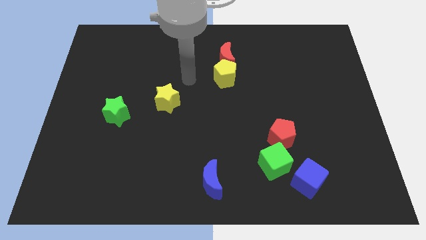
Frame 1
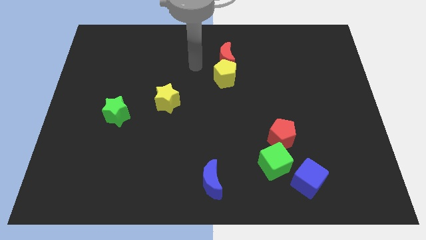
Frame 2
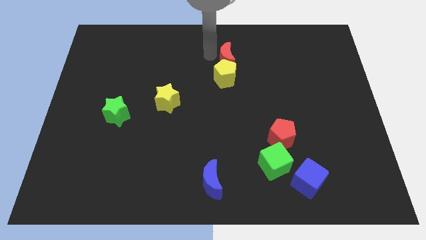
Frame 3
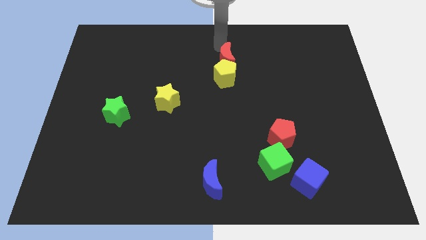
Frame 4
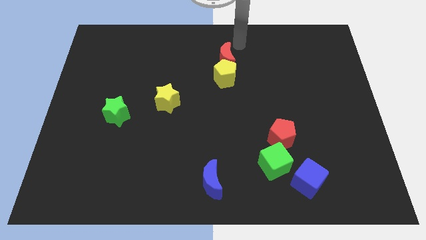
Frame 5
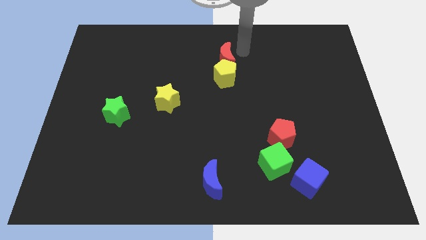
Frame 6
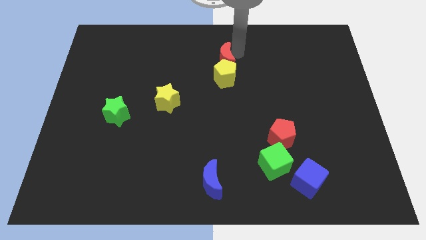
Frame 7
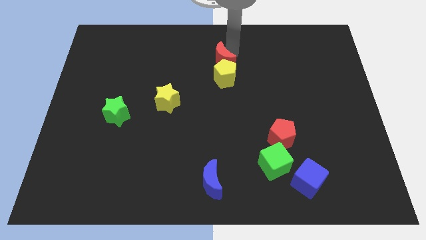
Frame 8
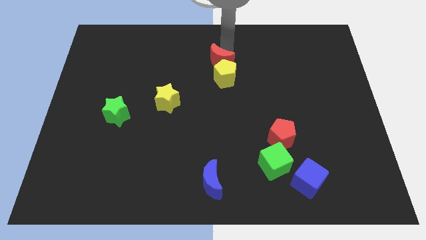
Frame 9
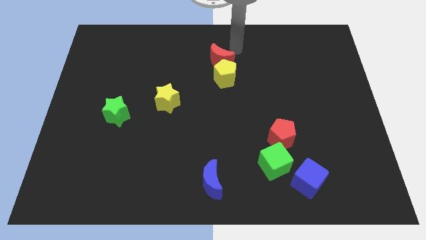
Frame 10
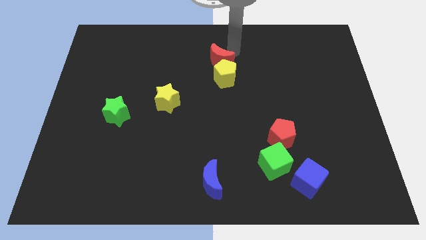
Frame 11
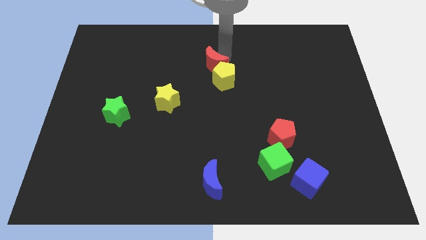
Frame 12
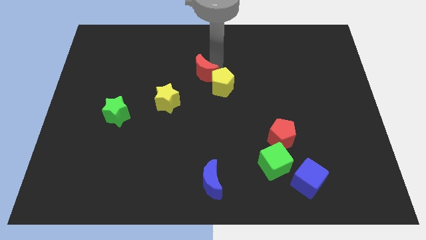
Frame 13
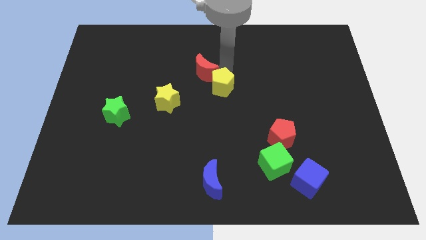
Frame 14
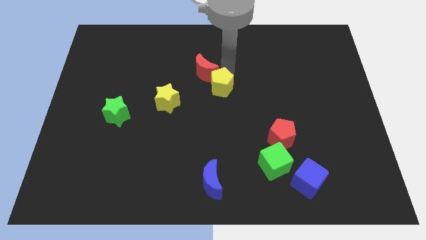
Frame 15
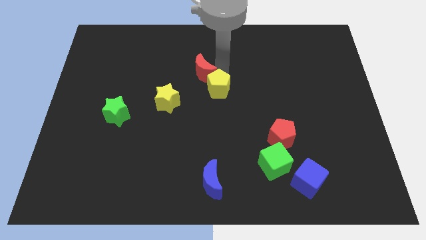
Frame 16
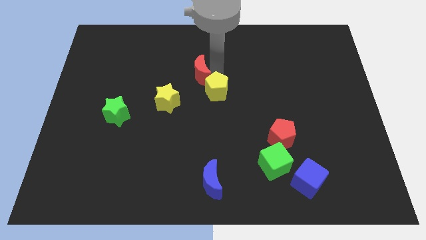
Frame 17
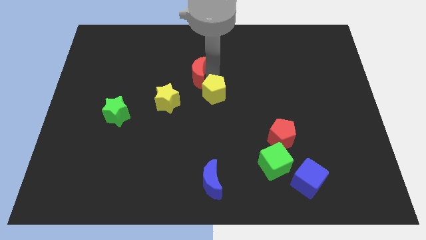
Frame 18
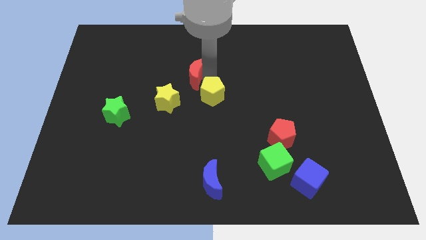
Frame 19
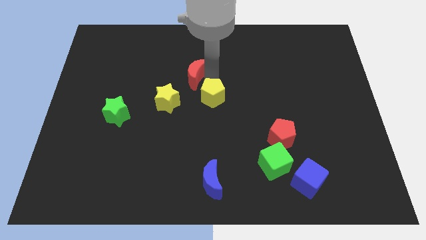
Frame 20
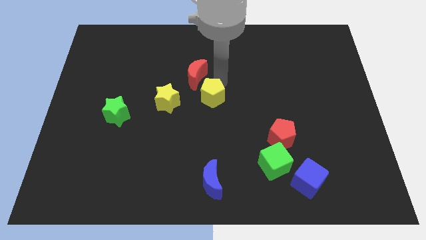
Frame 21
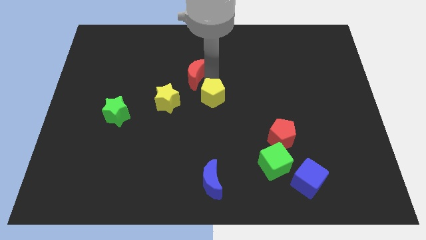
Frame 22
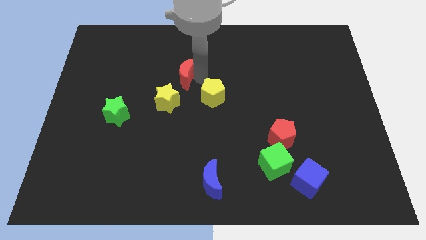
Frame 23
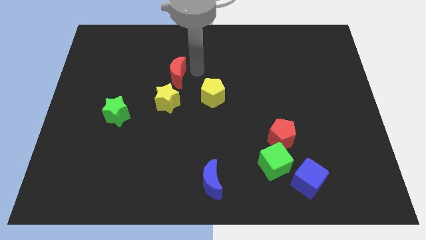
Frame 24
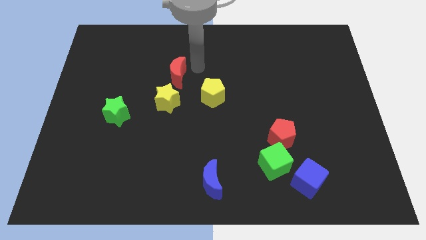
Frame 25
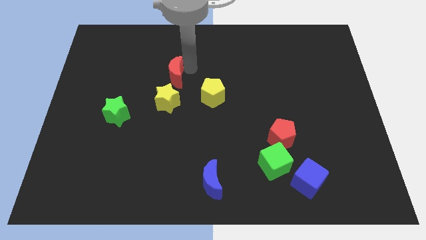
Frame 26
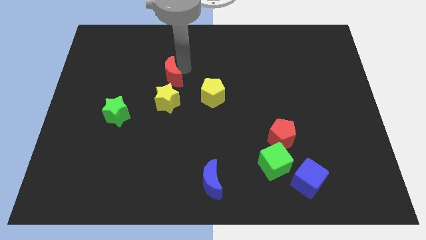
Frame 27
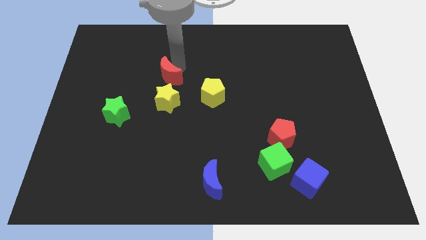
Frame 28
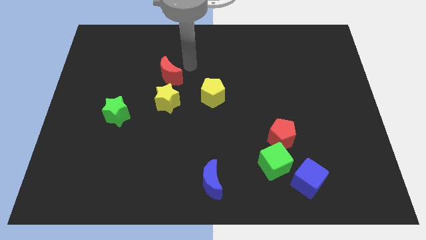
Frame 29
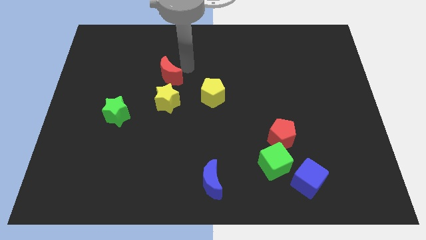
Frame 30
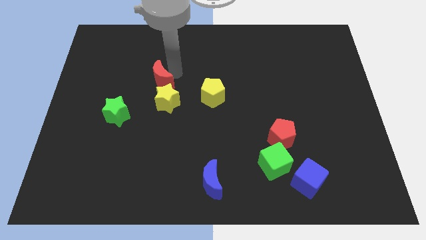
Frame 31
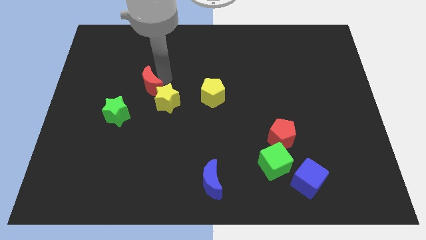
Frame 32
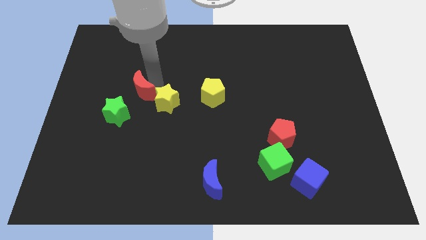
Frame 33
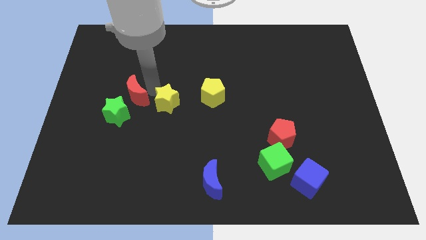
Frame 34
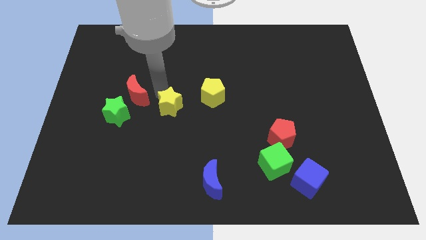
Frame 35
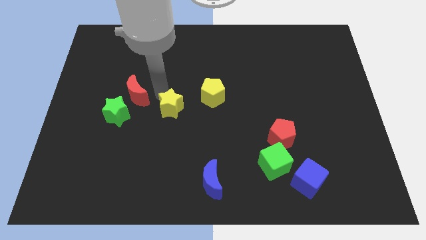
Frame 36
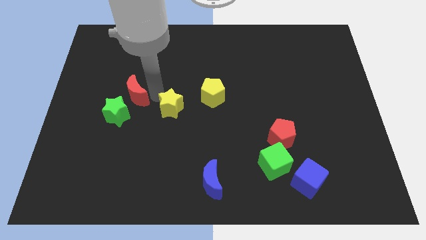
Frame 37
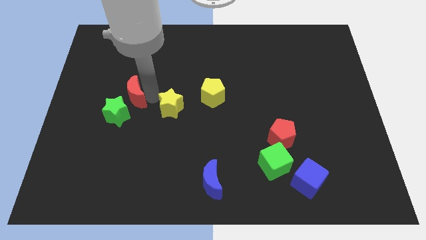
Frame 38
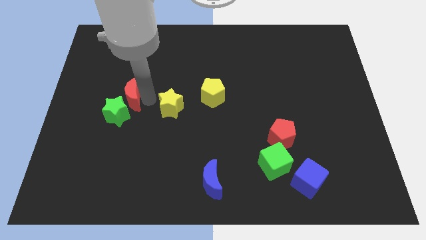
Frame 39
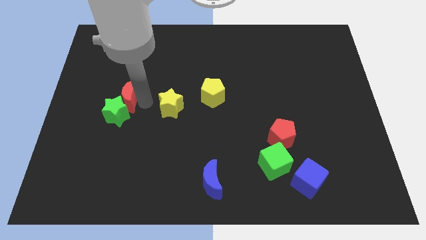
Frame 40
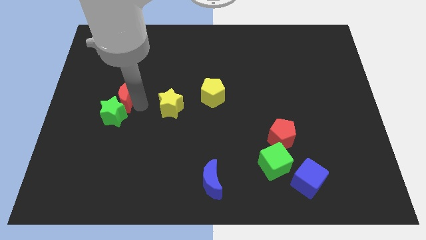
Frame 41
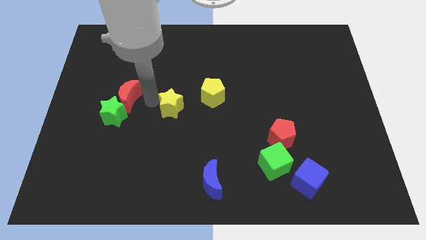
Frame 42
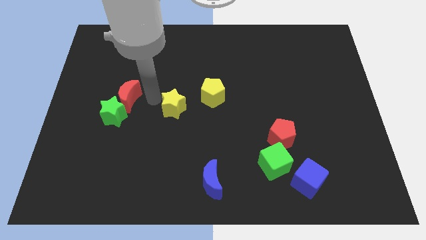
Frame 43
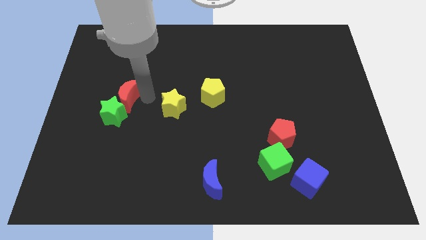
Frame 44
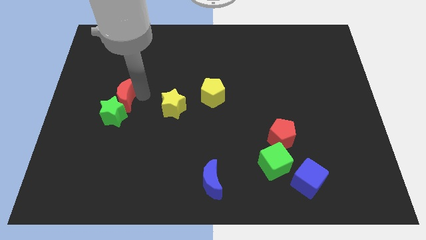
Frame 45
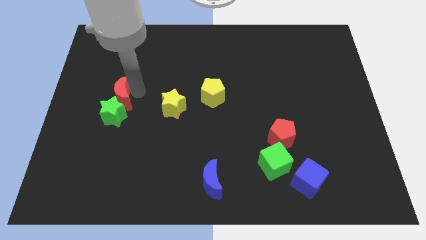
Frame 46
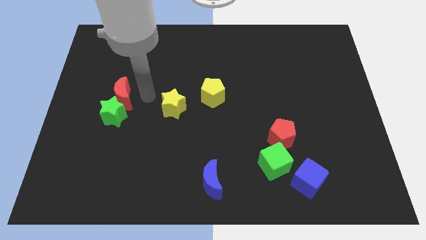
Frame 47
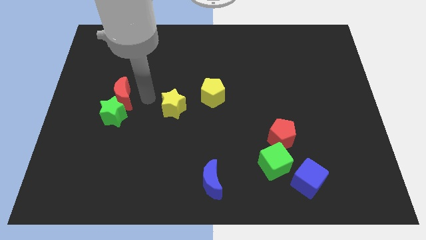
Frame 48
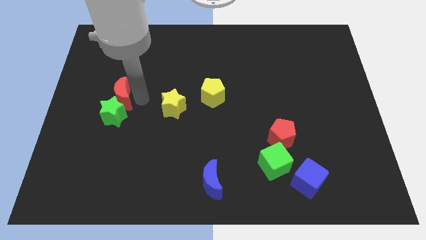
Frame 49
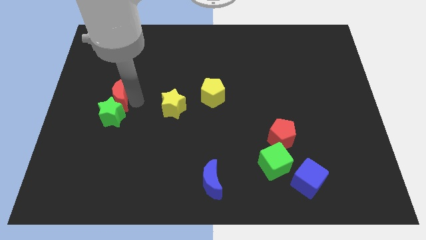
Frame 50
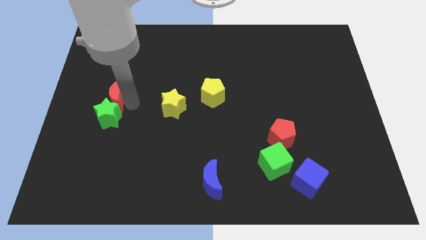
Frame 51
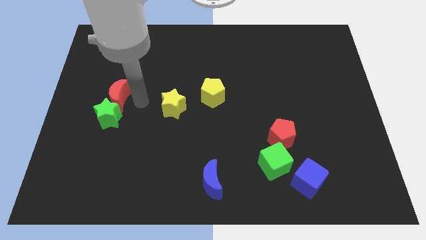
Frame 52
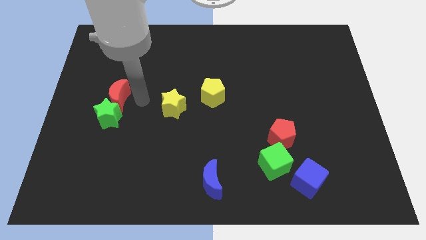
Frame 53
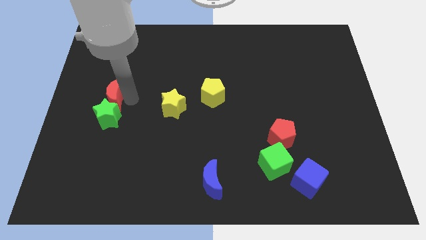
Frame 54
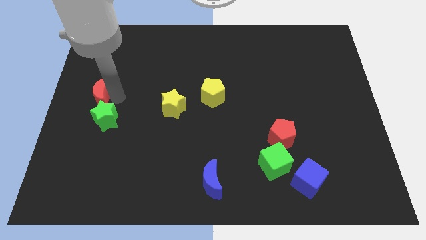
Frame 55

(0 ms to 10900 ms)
move the red moon to the center left

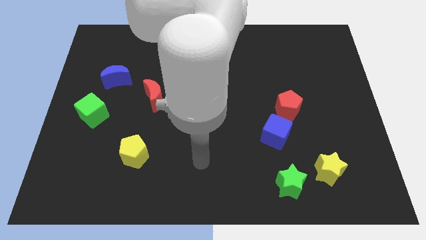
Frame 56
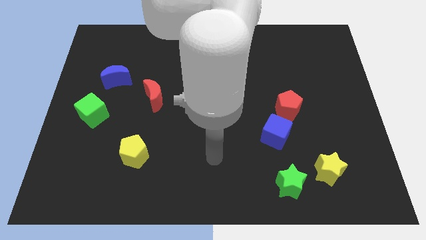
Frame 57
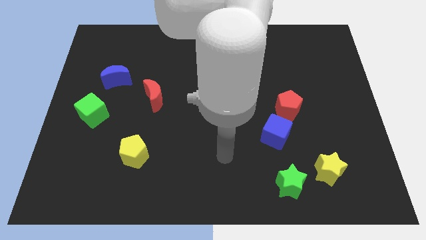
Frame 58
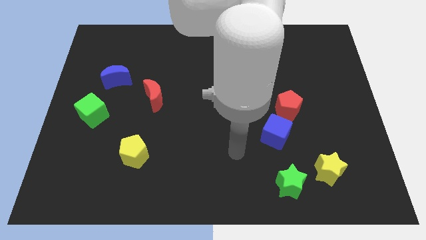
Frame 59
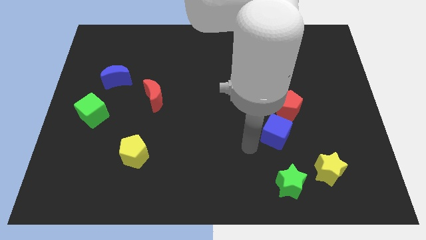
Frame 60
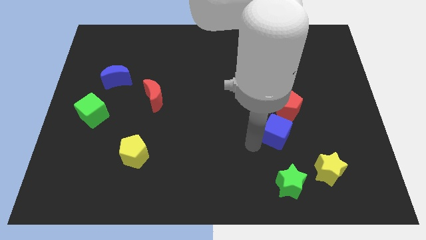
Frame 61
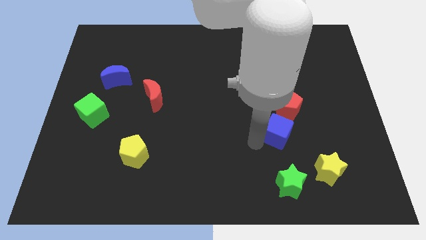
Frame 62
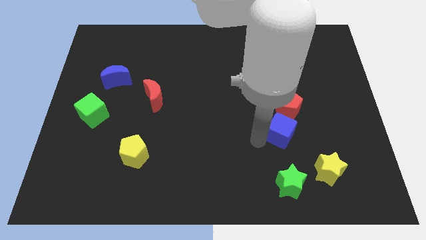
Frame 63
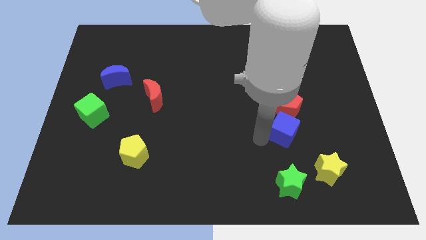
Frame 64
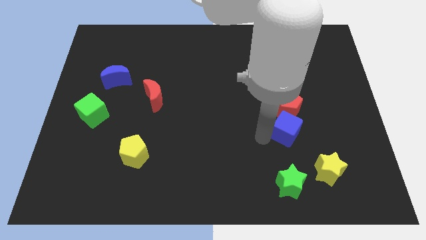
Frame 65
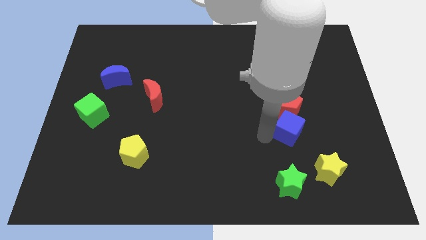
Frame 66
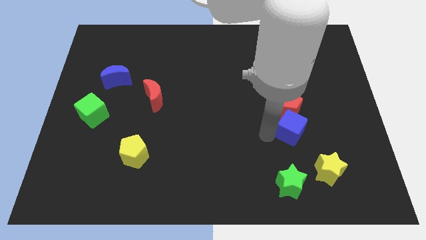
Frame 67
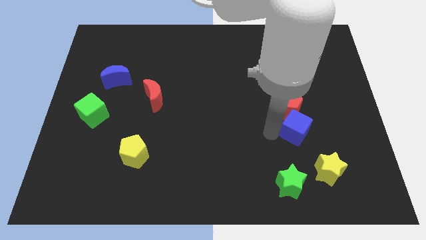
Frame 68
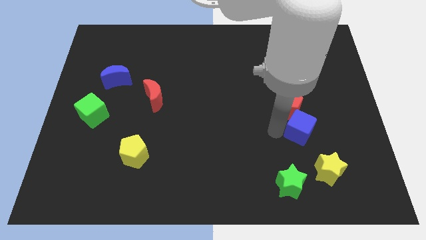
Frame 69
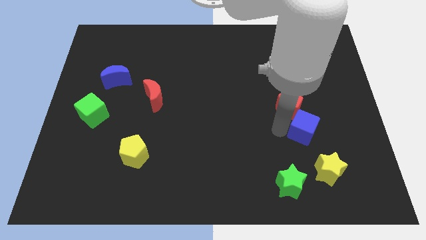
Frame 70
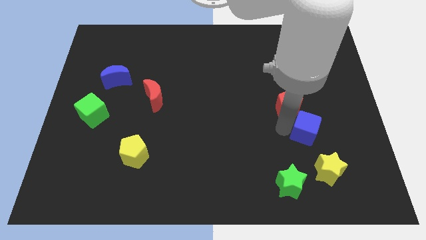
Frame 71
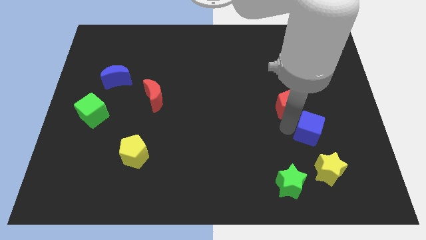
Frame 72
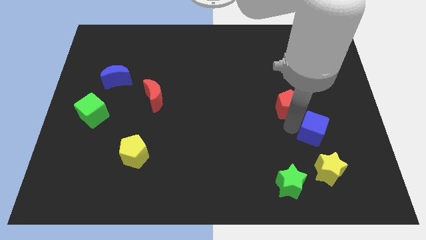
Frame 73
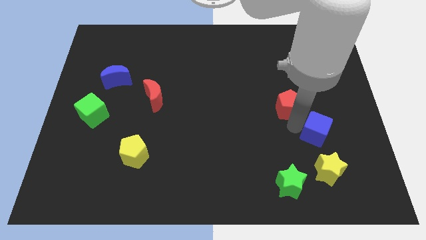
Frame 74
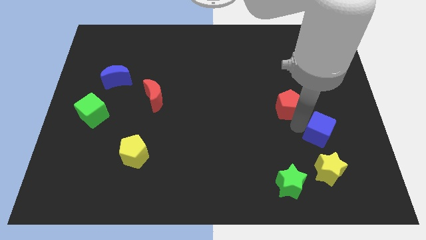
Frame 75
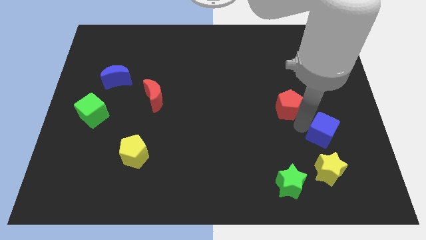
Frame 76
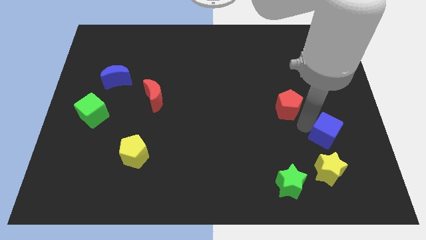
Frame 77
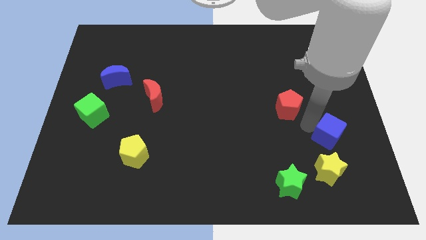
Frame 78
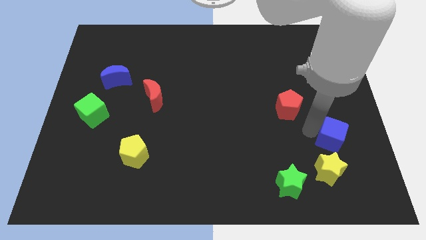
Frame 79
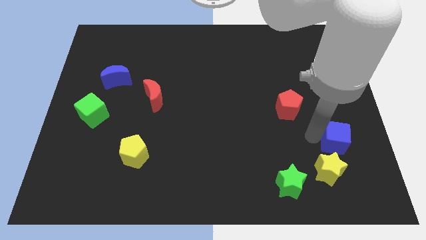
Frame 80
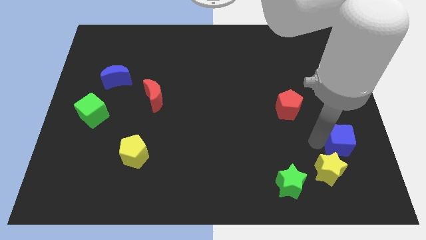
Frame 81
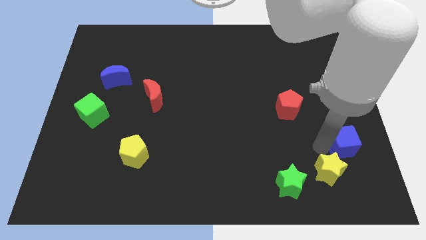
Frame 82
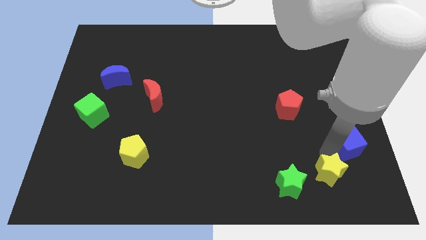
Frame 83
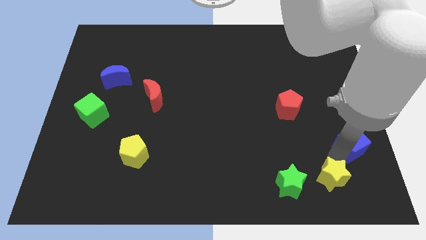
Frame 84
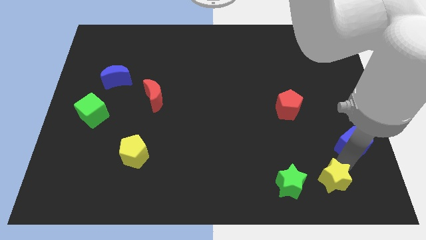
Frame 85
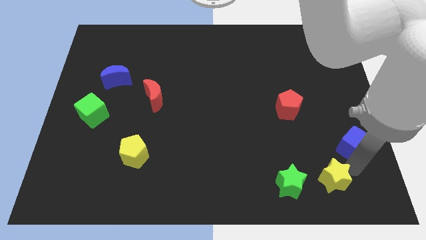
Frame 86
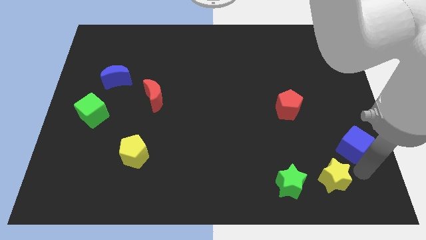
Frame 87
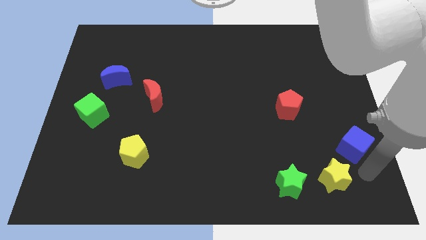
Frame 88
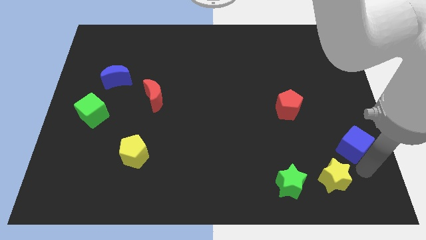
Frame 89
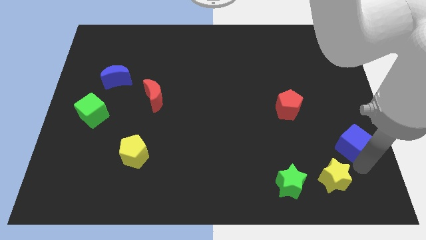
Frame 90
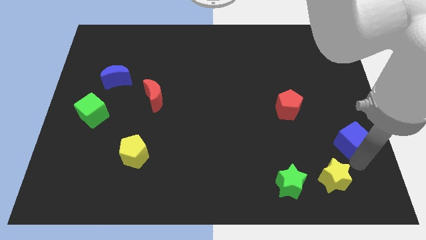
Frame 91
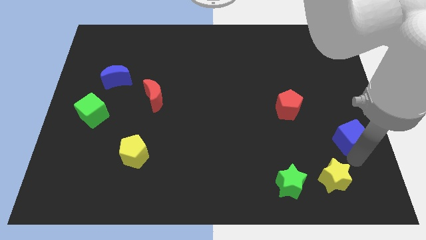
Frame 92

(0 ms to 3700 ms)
put the blue cube to the right side of the board
